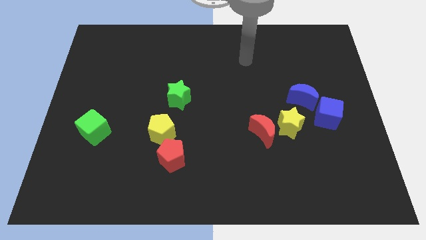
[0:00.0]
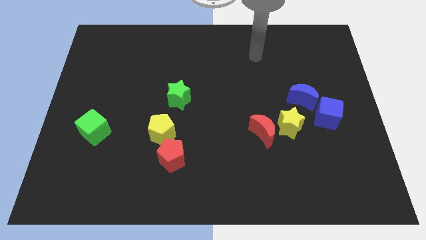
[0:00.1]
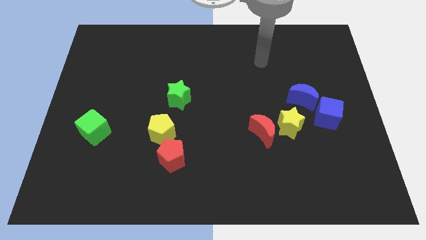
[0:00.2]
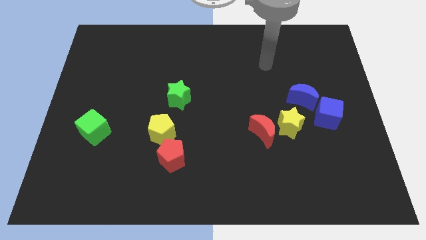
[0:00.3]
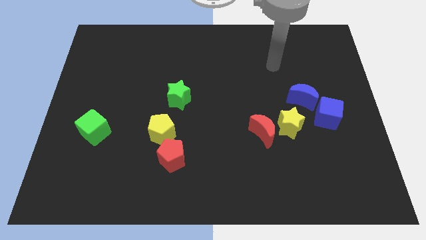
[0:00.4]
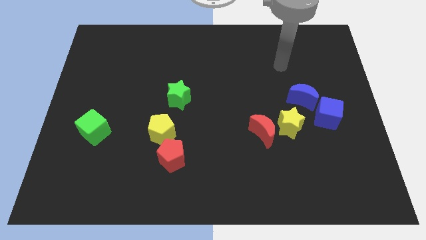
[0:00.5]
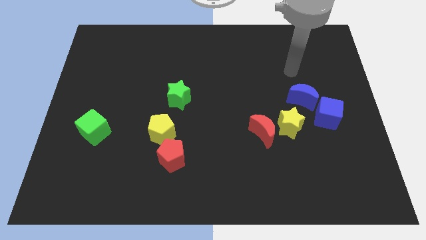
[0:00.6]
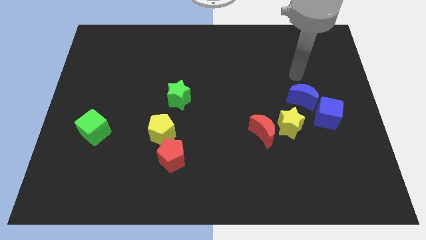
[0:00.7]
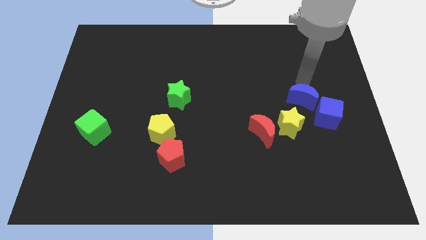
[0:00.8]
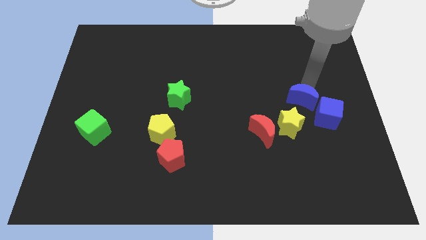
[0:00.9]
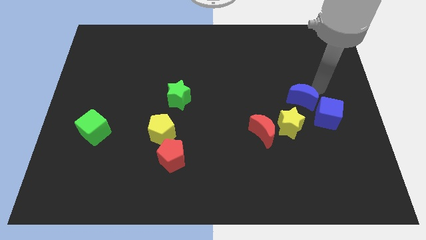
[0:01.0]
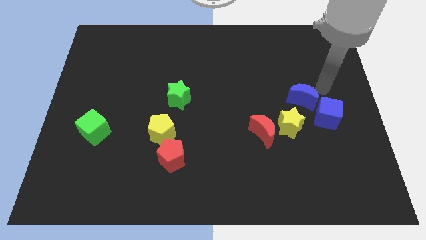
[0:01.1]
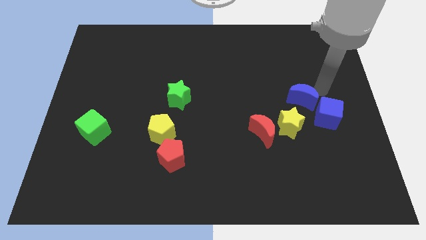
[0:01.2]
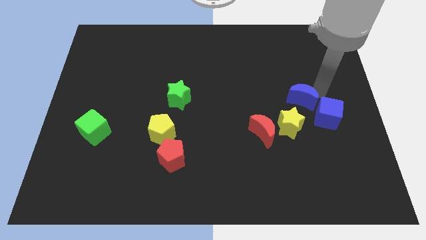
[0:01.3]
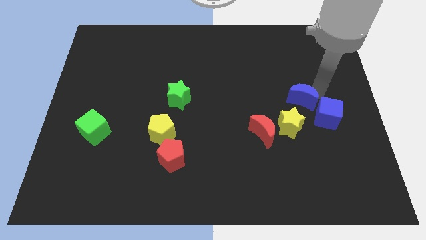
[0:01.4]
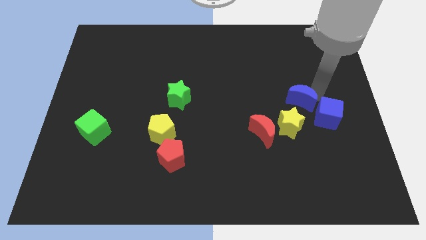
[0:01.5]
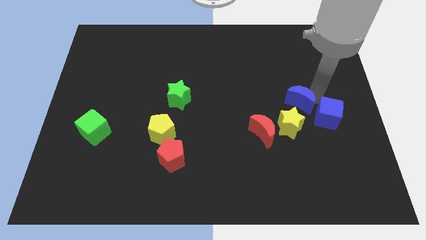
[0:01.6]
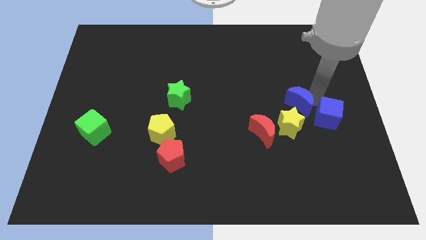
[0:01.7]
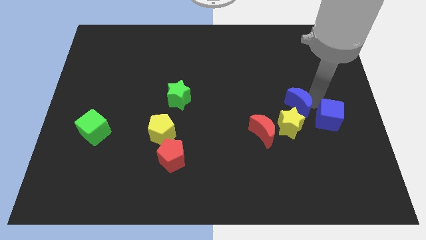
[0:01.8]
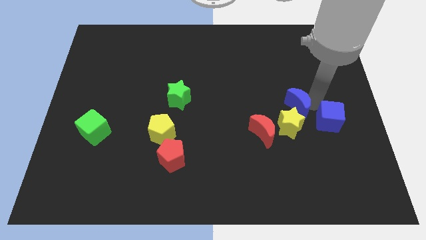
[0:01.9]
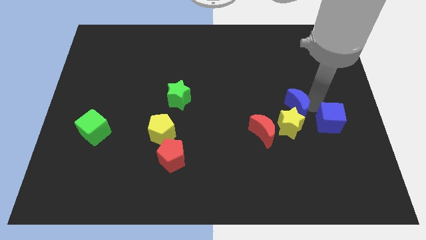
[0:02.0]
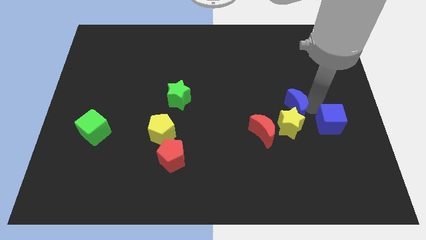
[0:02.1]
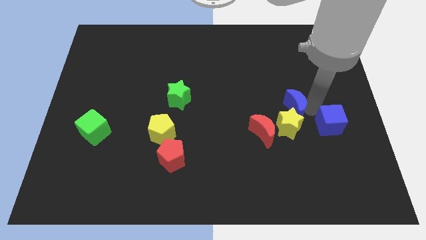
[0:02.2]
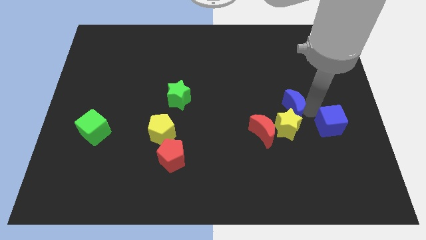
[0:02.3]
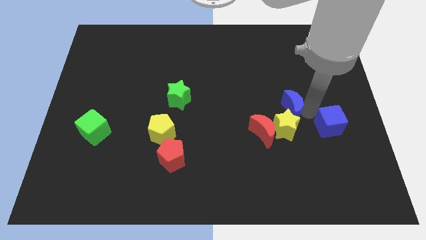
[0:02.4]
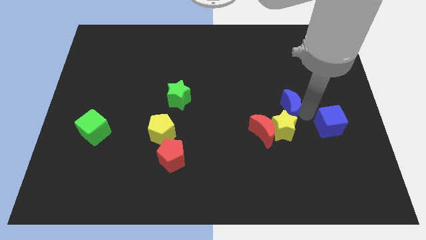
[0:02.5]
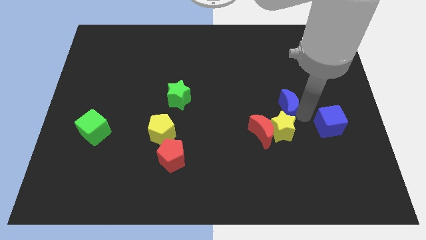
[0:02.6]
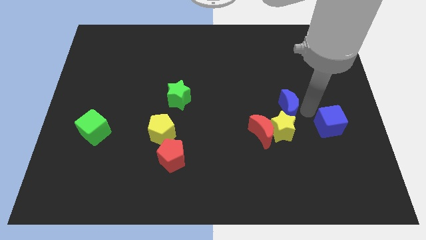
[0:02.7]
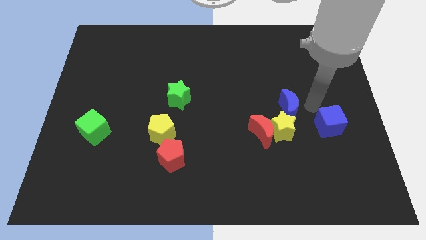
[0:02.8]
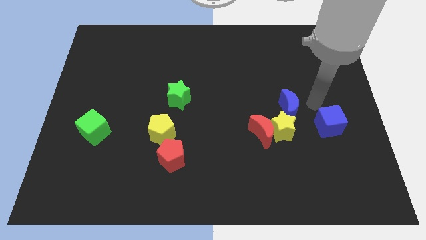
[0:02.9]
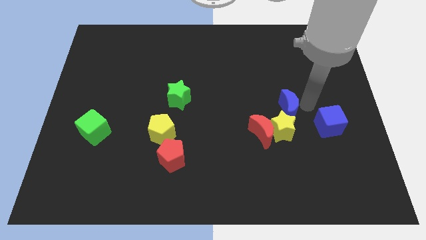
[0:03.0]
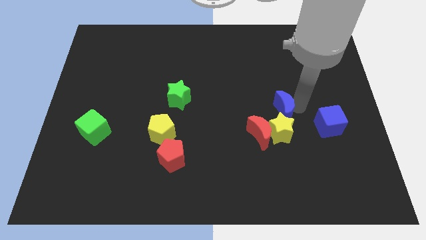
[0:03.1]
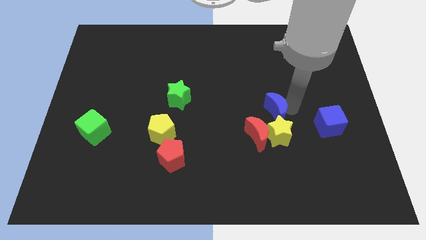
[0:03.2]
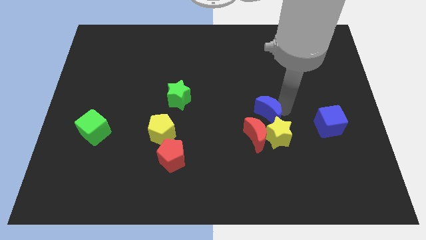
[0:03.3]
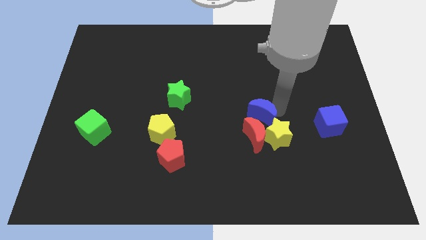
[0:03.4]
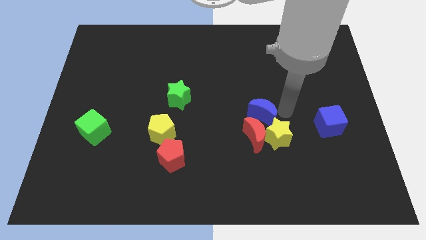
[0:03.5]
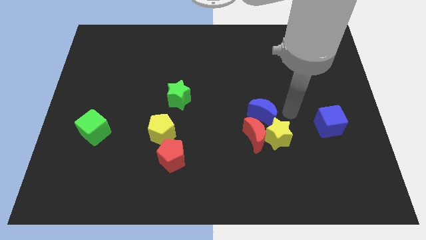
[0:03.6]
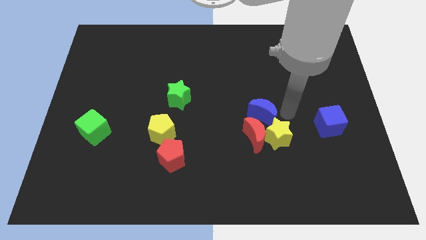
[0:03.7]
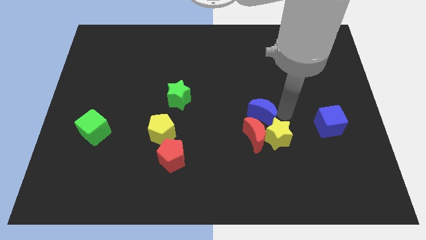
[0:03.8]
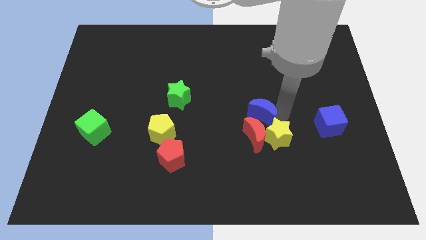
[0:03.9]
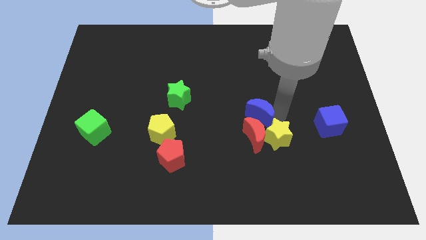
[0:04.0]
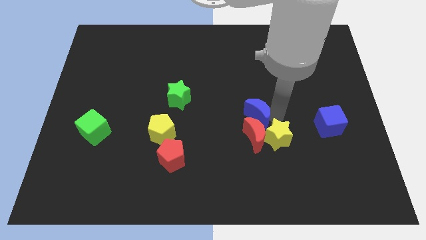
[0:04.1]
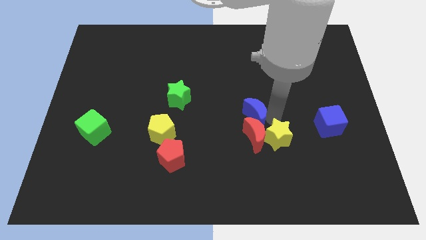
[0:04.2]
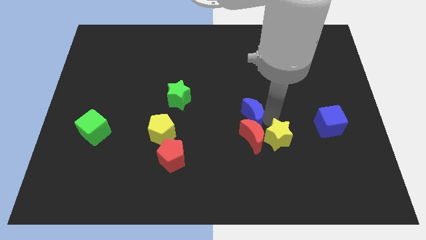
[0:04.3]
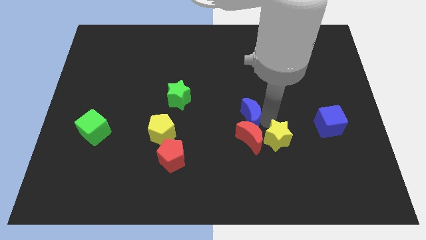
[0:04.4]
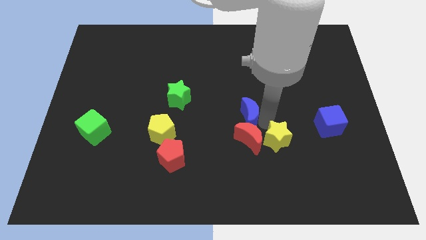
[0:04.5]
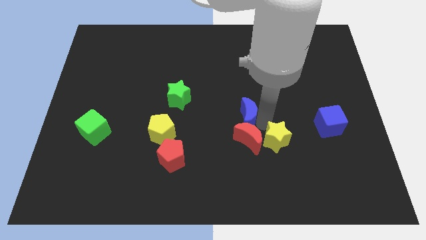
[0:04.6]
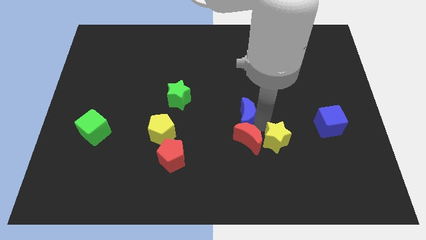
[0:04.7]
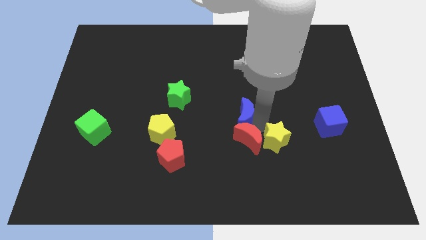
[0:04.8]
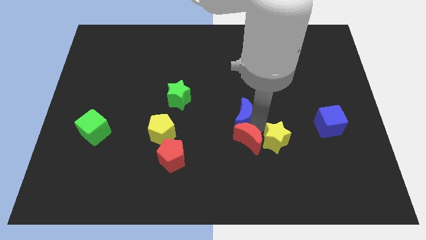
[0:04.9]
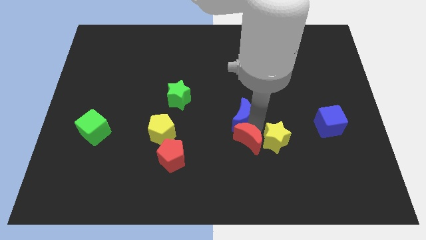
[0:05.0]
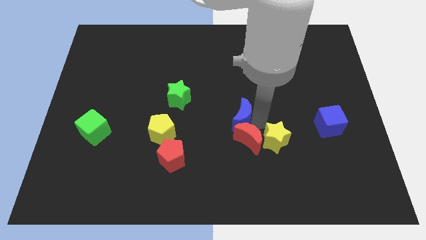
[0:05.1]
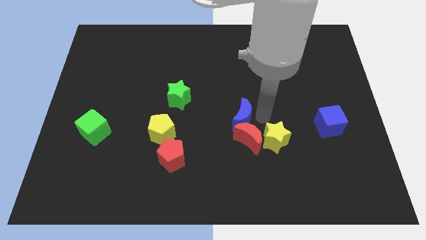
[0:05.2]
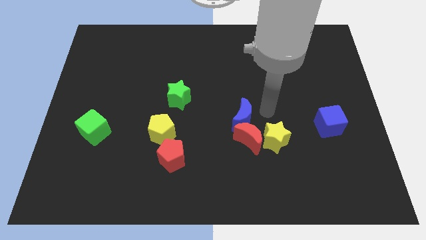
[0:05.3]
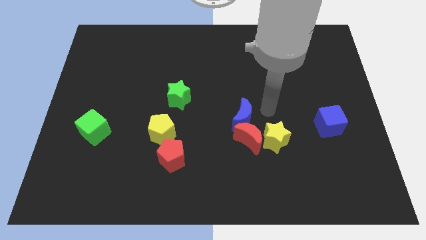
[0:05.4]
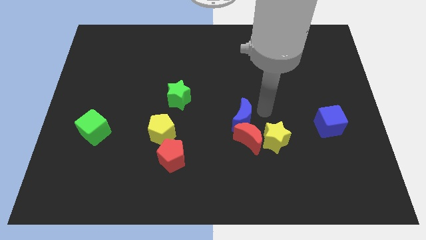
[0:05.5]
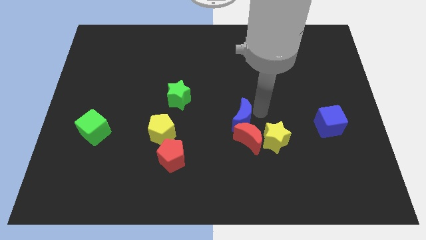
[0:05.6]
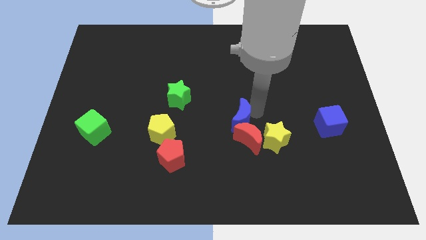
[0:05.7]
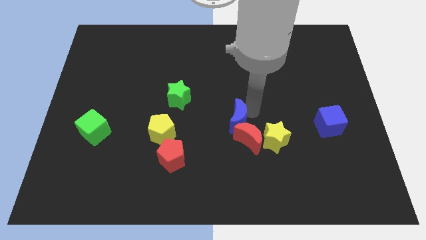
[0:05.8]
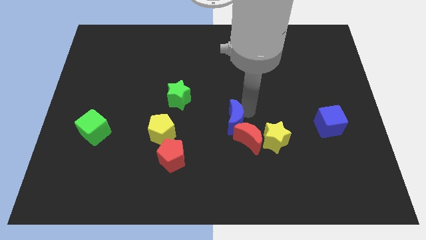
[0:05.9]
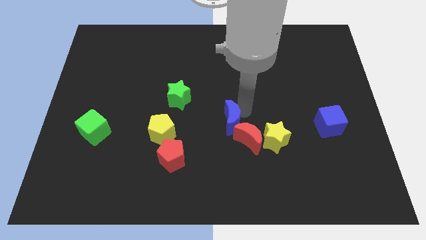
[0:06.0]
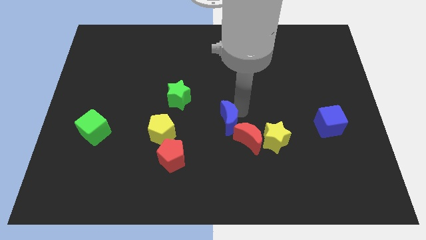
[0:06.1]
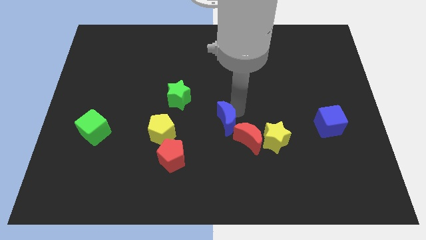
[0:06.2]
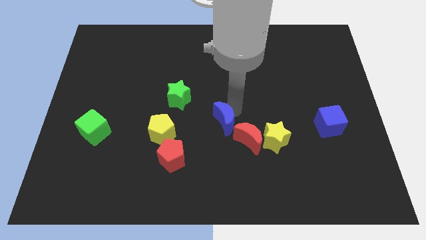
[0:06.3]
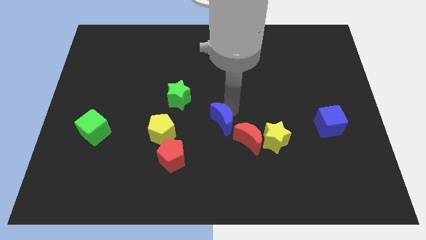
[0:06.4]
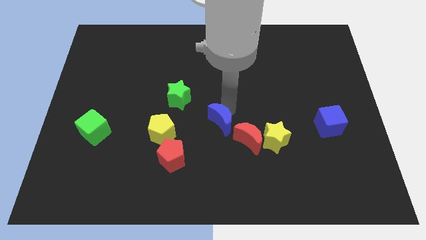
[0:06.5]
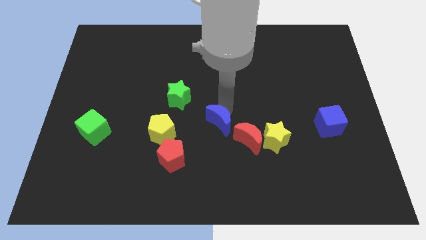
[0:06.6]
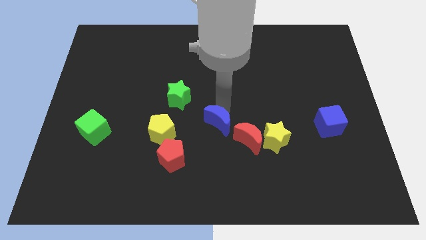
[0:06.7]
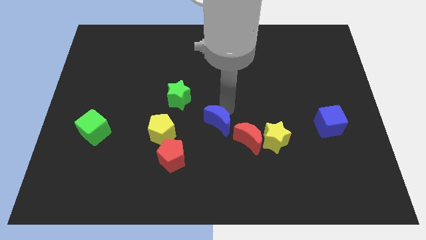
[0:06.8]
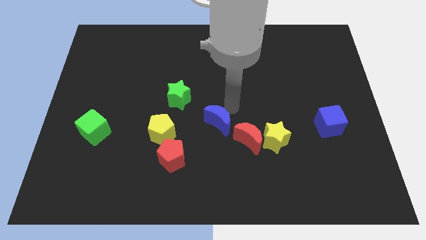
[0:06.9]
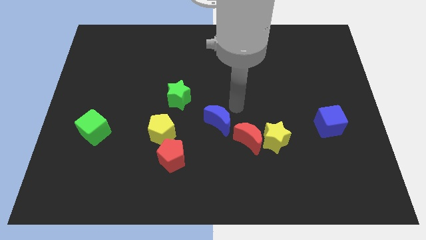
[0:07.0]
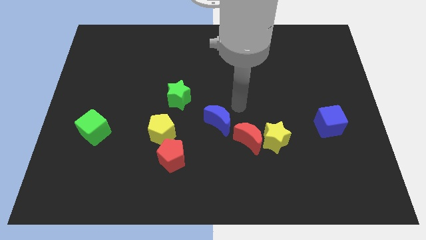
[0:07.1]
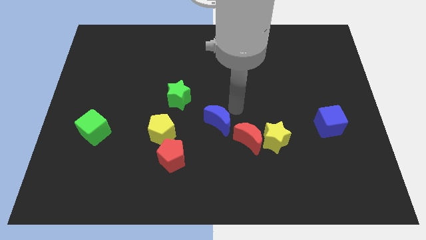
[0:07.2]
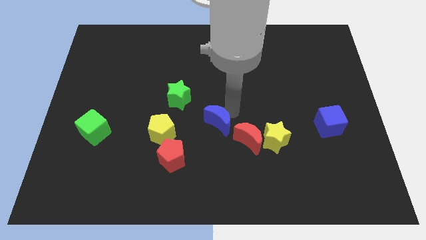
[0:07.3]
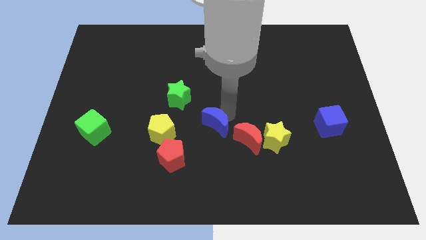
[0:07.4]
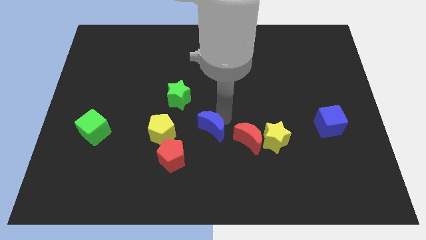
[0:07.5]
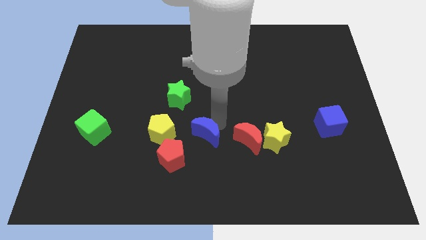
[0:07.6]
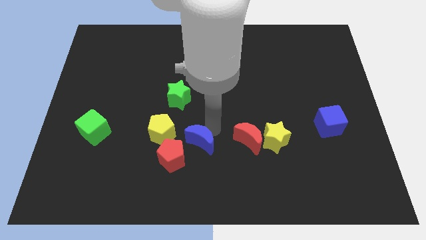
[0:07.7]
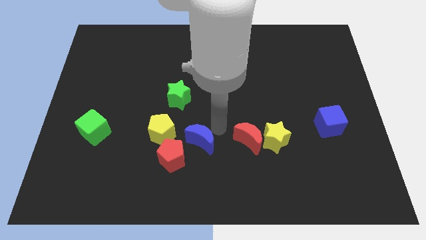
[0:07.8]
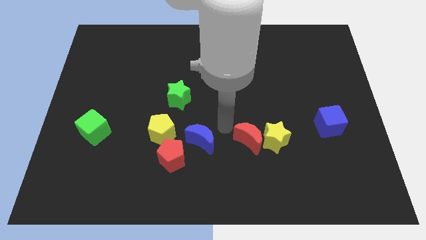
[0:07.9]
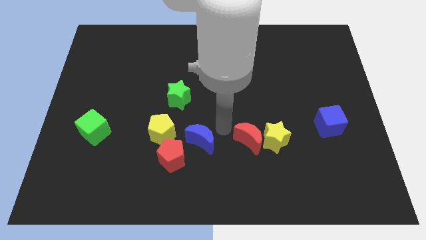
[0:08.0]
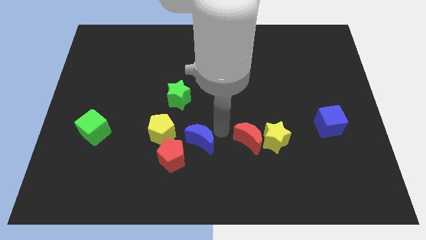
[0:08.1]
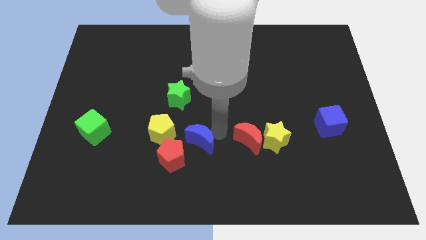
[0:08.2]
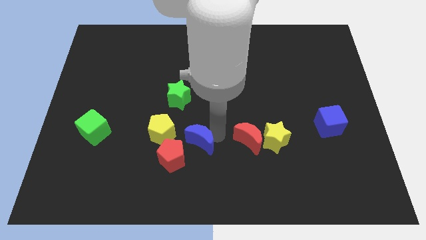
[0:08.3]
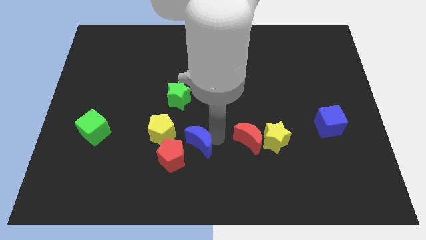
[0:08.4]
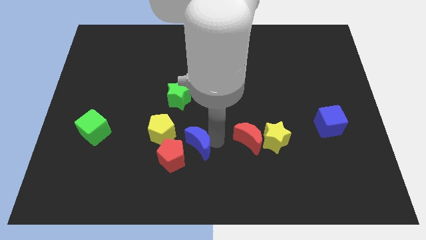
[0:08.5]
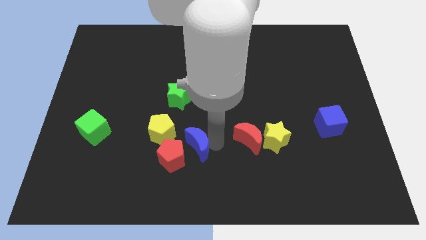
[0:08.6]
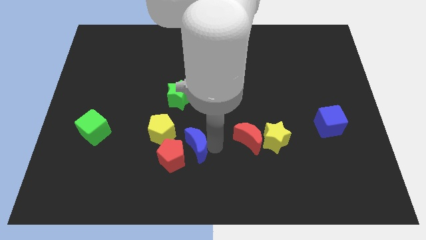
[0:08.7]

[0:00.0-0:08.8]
slide the blue moon close to the red pentagon
